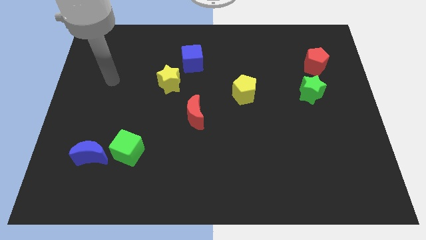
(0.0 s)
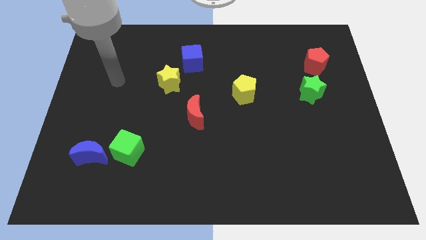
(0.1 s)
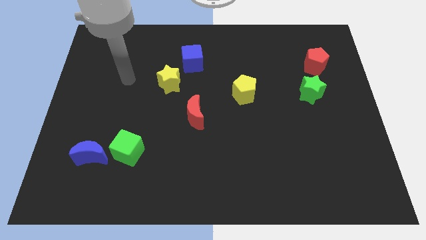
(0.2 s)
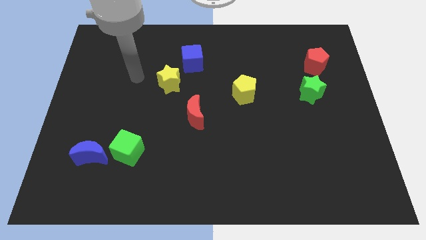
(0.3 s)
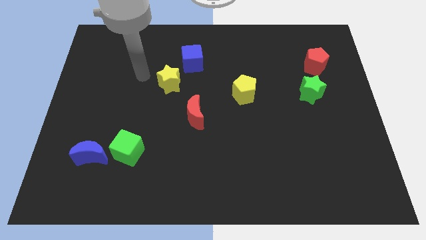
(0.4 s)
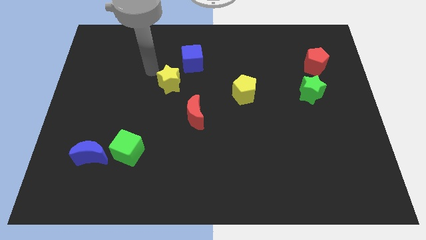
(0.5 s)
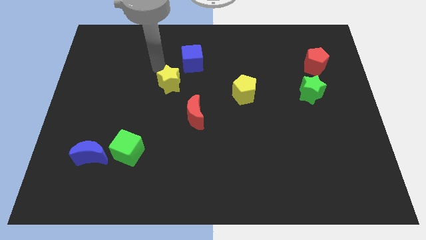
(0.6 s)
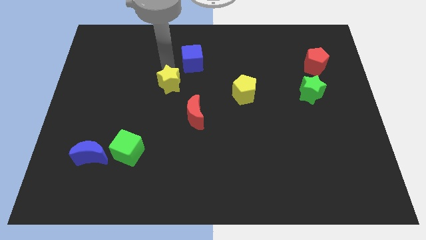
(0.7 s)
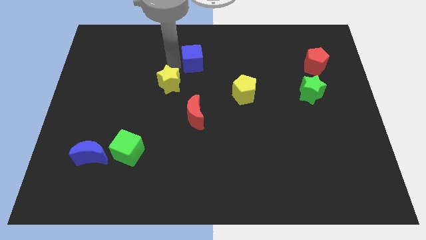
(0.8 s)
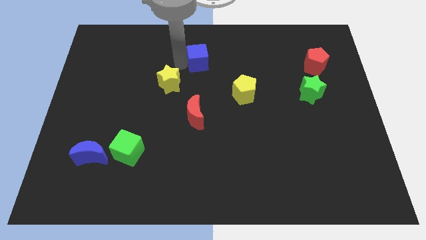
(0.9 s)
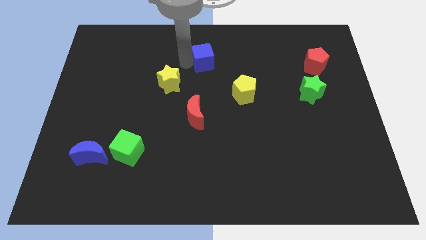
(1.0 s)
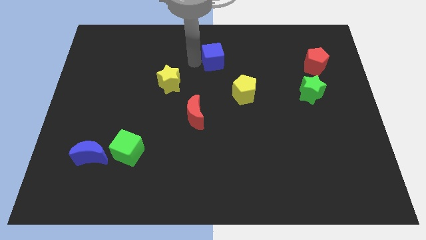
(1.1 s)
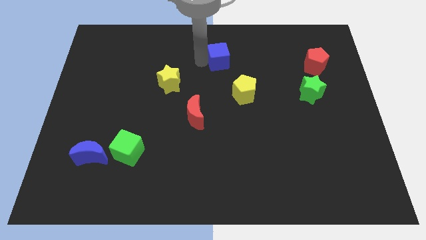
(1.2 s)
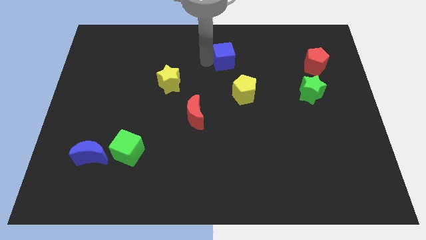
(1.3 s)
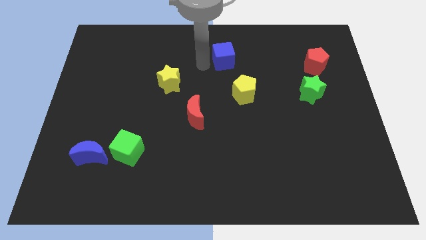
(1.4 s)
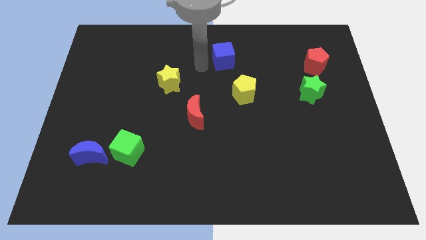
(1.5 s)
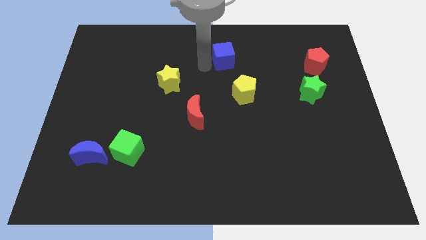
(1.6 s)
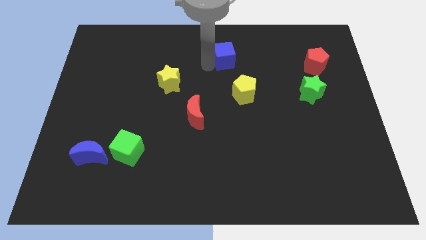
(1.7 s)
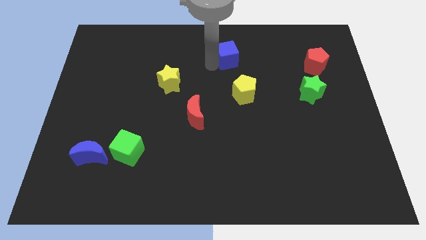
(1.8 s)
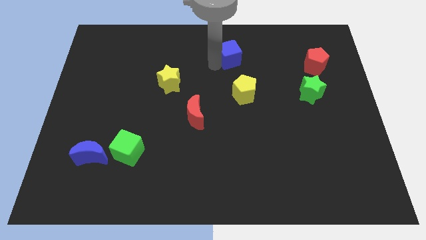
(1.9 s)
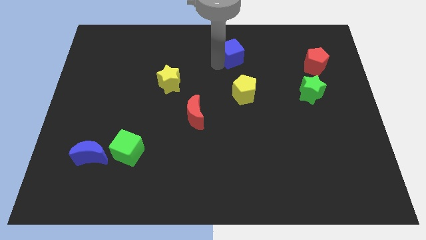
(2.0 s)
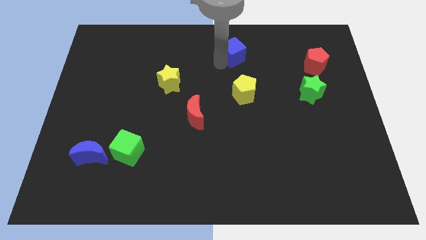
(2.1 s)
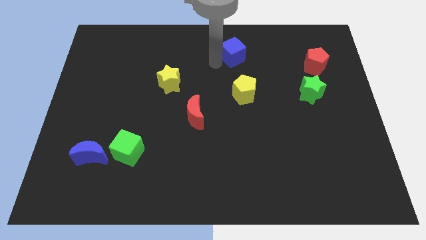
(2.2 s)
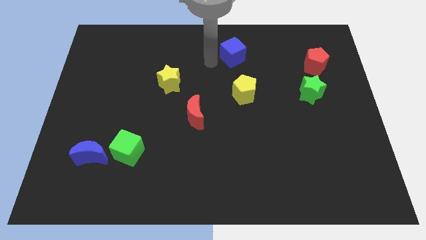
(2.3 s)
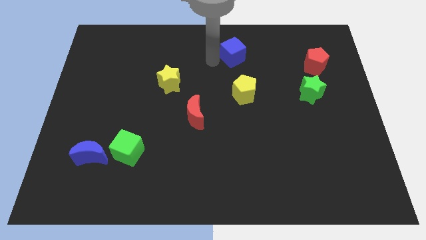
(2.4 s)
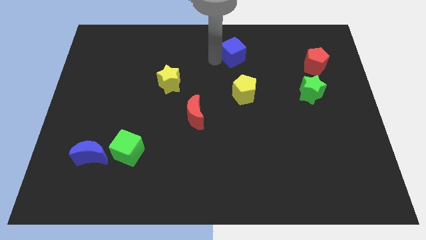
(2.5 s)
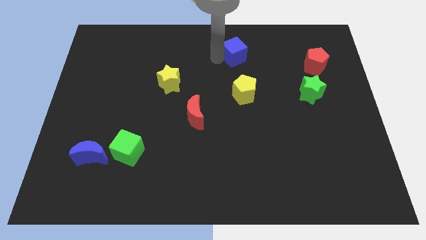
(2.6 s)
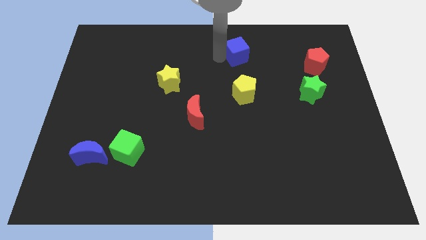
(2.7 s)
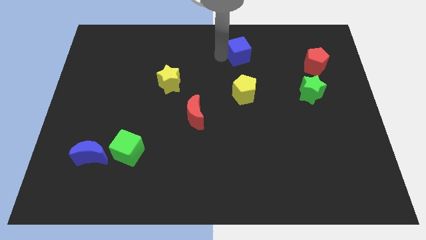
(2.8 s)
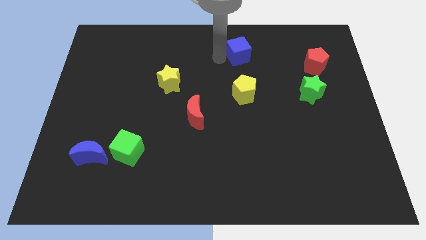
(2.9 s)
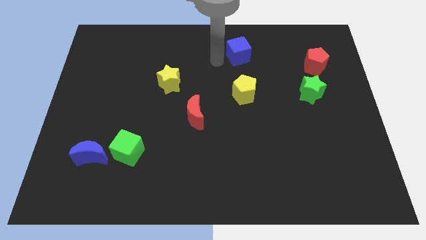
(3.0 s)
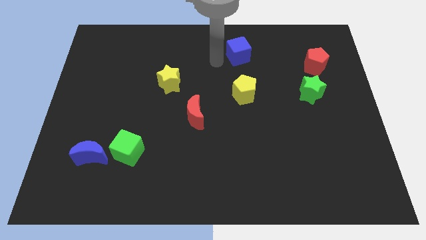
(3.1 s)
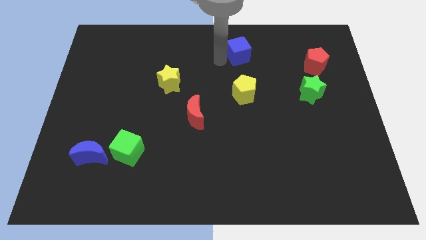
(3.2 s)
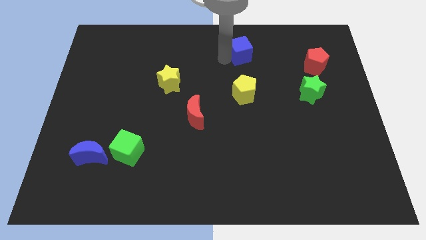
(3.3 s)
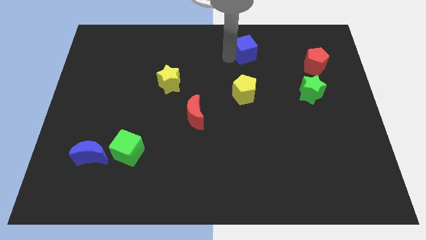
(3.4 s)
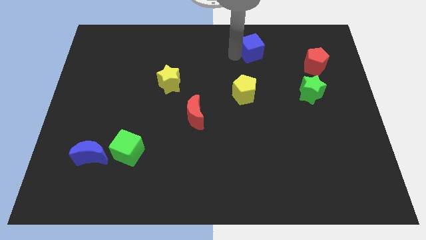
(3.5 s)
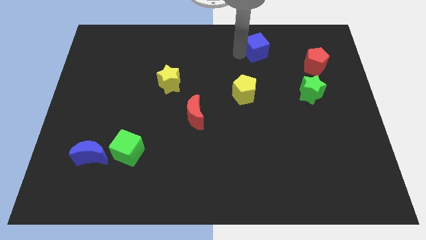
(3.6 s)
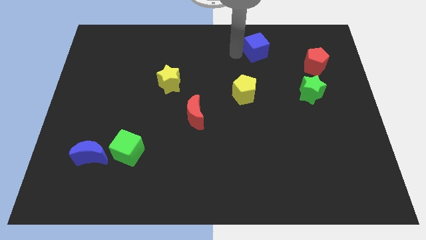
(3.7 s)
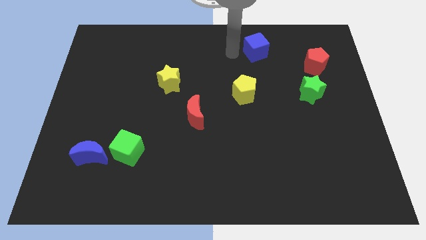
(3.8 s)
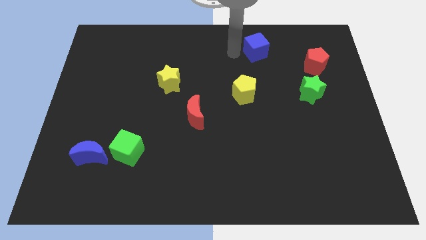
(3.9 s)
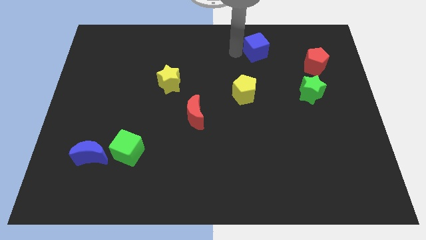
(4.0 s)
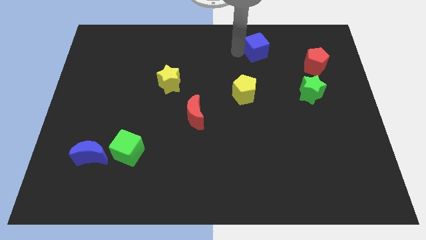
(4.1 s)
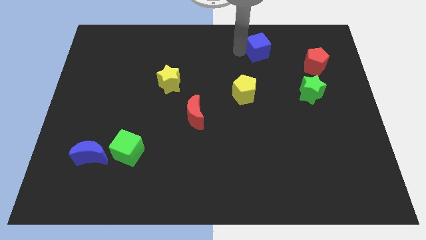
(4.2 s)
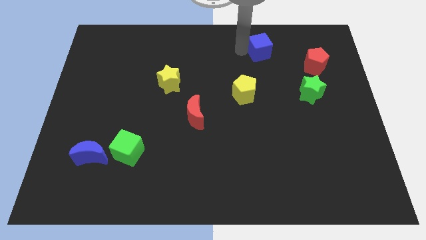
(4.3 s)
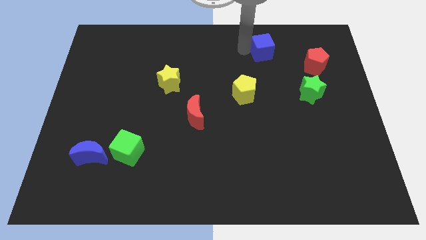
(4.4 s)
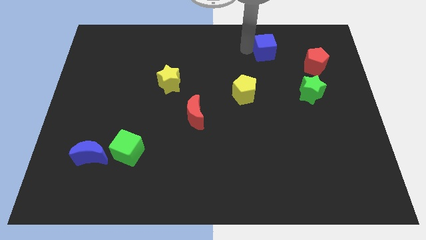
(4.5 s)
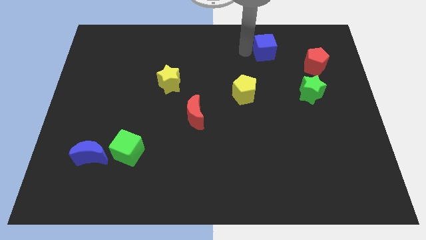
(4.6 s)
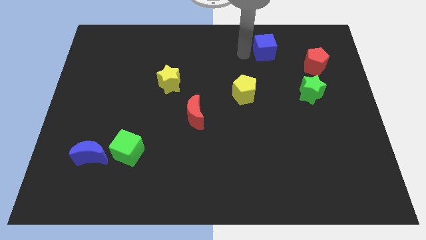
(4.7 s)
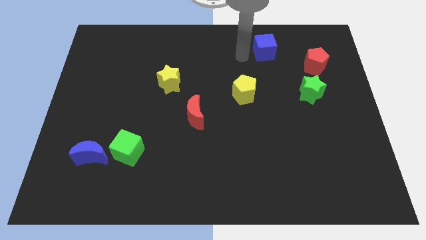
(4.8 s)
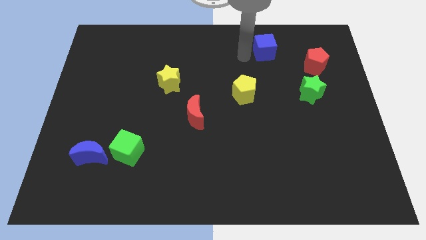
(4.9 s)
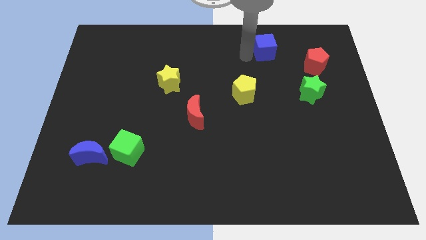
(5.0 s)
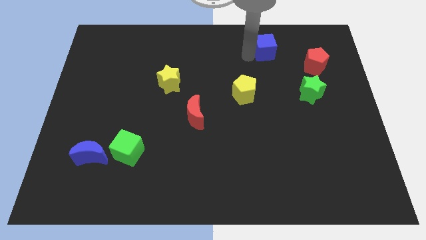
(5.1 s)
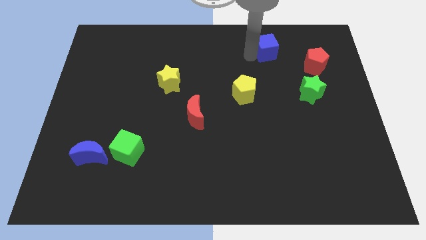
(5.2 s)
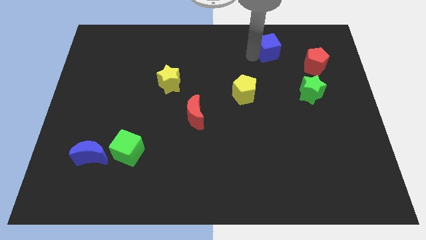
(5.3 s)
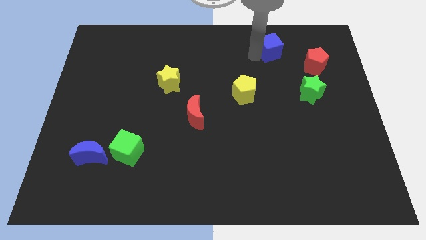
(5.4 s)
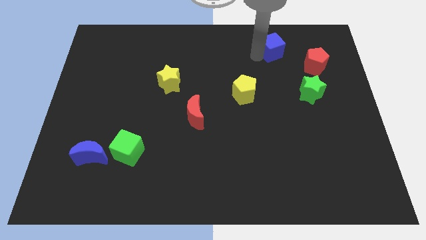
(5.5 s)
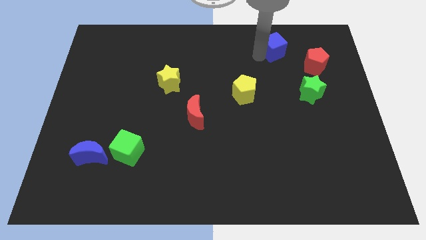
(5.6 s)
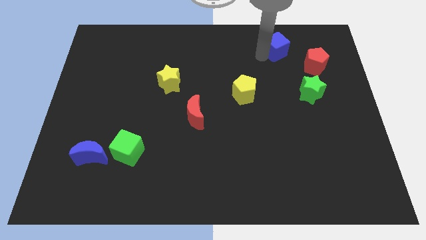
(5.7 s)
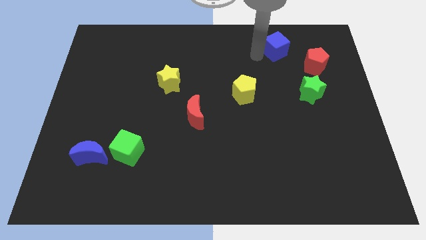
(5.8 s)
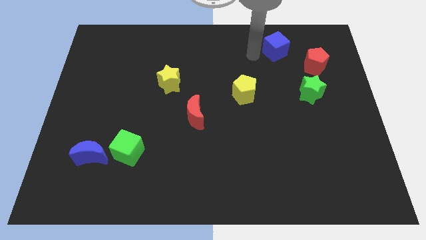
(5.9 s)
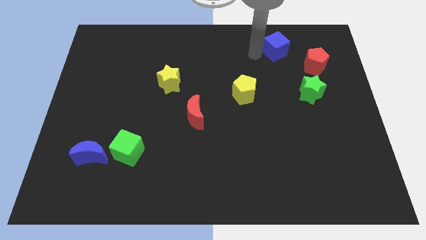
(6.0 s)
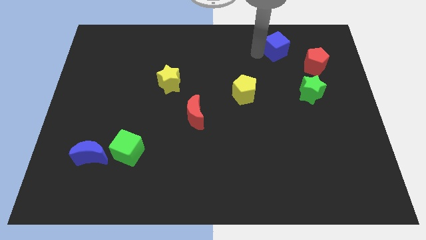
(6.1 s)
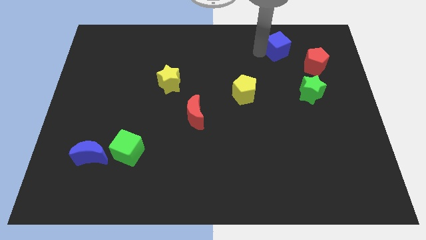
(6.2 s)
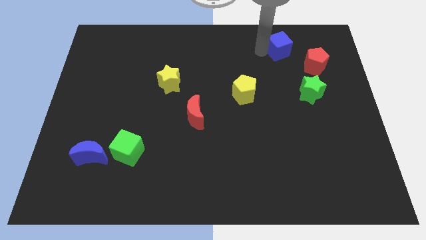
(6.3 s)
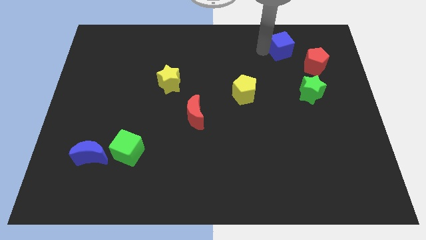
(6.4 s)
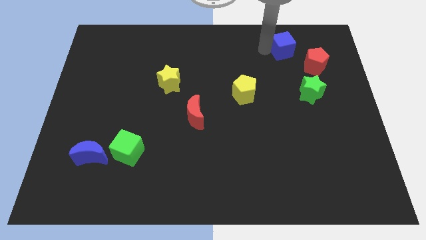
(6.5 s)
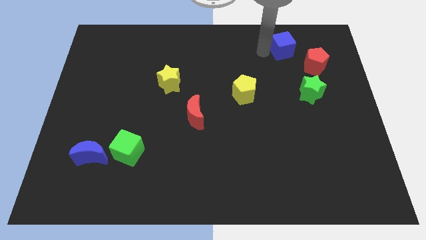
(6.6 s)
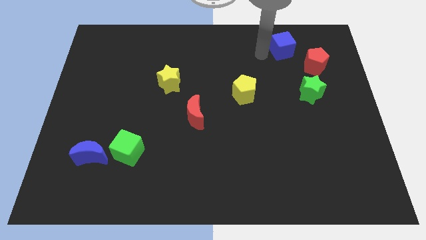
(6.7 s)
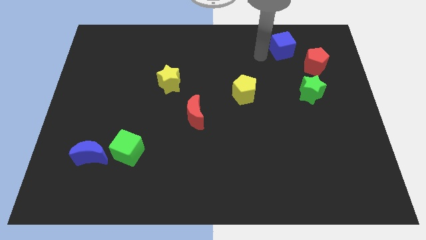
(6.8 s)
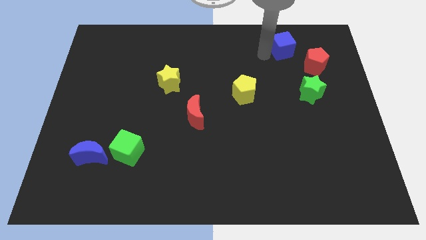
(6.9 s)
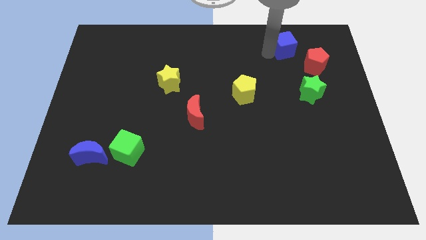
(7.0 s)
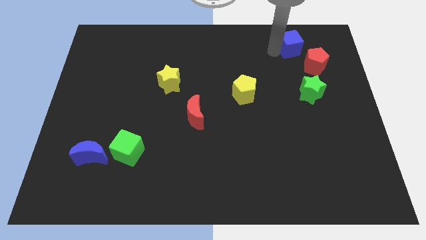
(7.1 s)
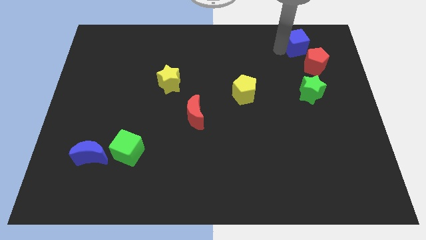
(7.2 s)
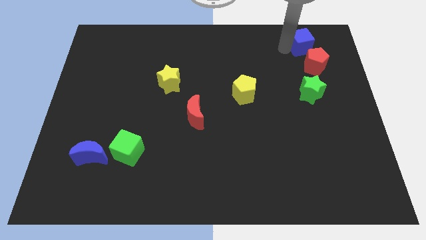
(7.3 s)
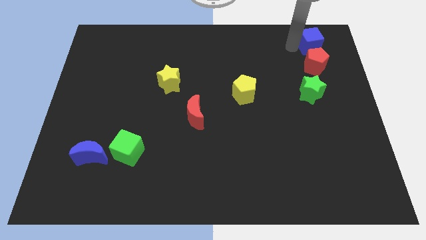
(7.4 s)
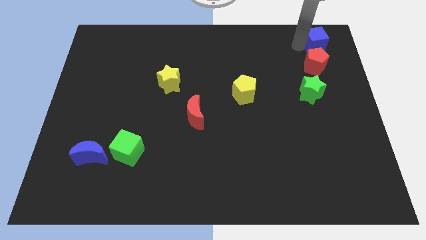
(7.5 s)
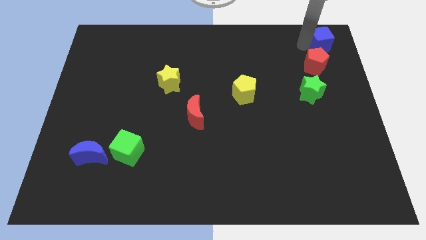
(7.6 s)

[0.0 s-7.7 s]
put the blue cube to the top right of the board
